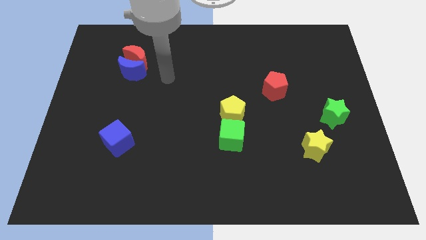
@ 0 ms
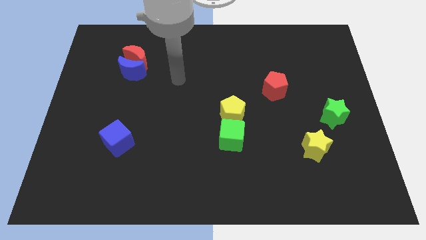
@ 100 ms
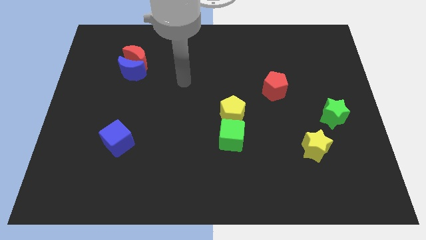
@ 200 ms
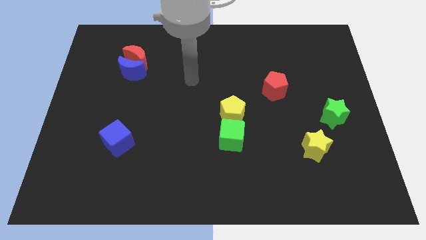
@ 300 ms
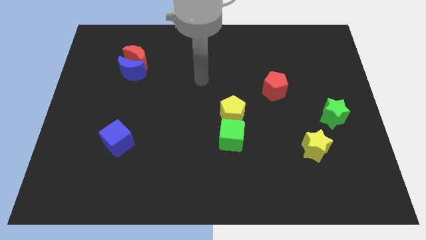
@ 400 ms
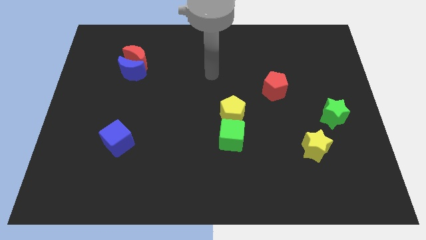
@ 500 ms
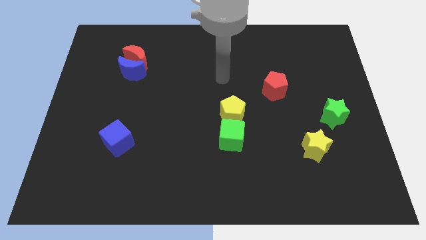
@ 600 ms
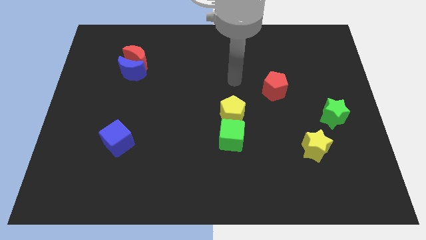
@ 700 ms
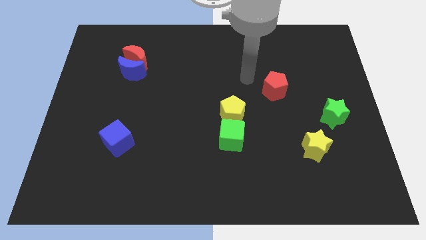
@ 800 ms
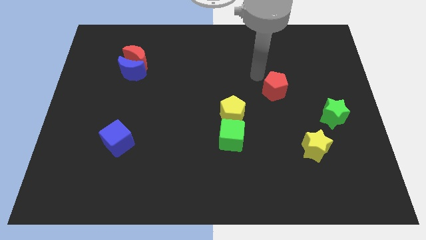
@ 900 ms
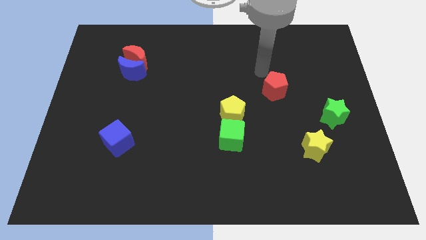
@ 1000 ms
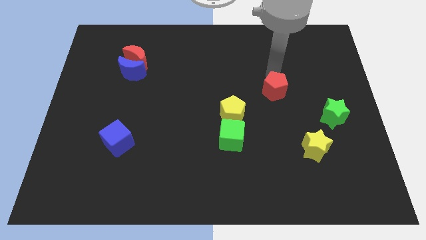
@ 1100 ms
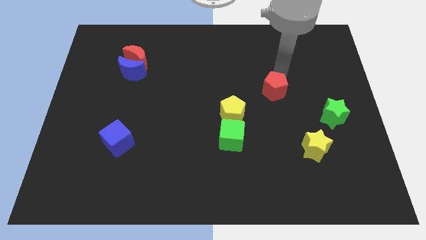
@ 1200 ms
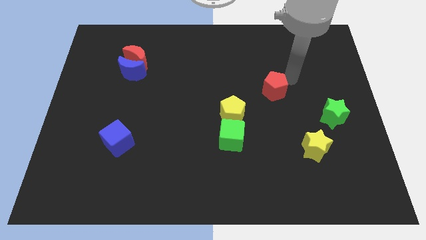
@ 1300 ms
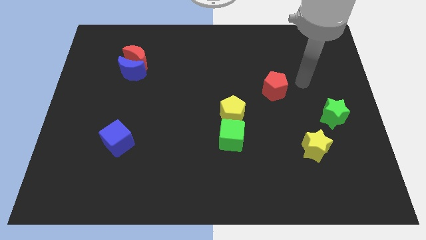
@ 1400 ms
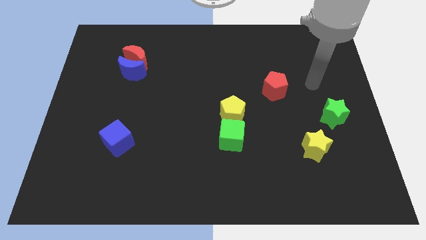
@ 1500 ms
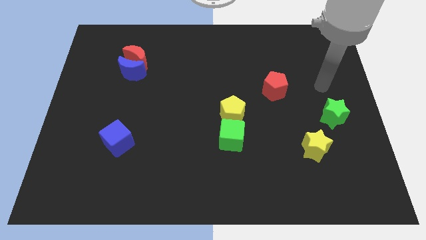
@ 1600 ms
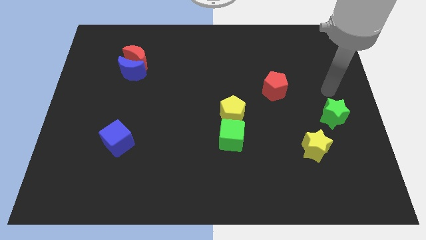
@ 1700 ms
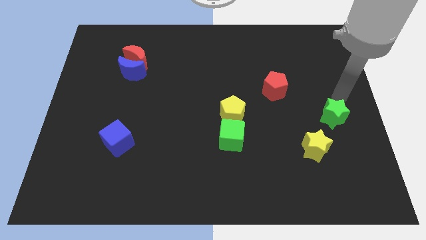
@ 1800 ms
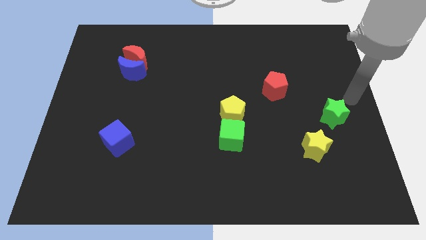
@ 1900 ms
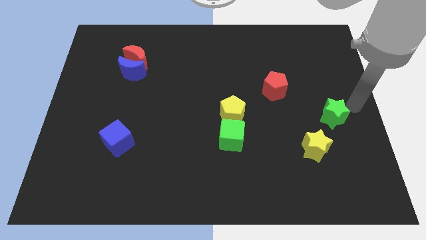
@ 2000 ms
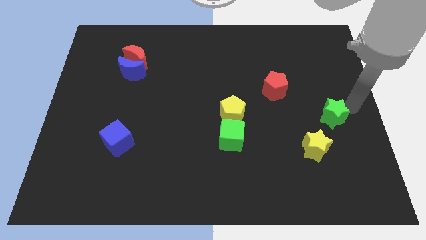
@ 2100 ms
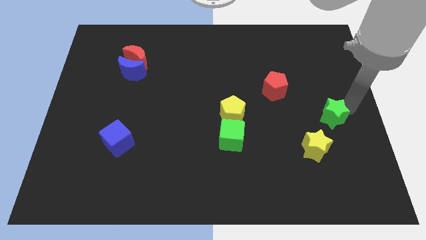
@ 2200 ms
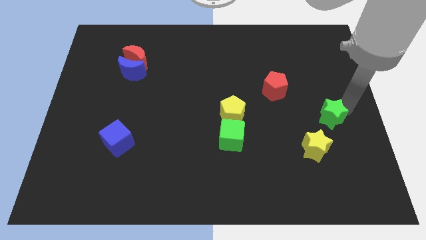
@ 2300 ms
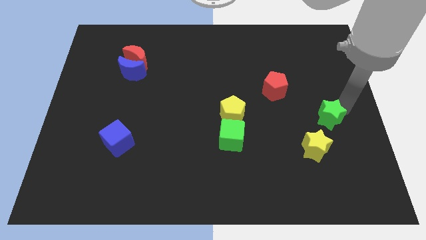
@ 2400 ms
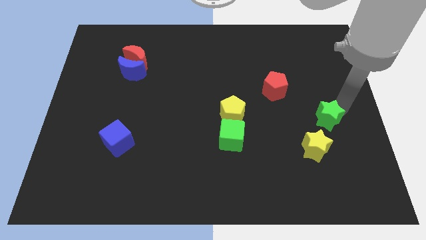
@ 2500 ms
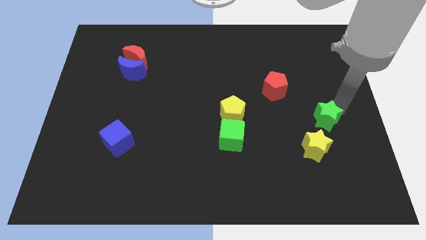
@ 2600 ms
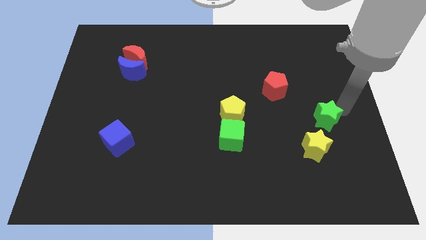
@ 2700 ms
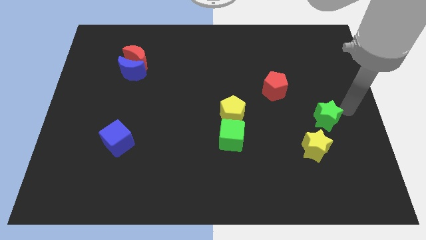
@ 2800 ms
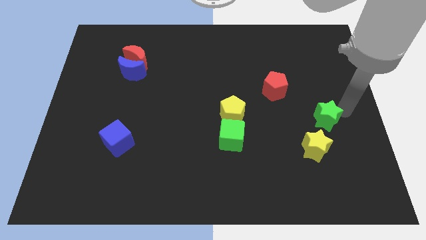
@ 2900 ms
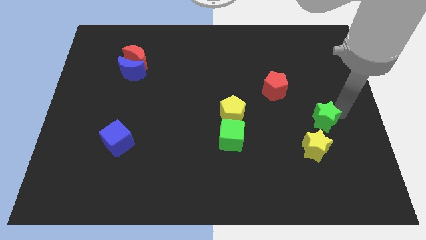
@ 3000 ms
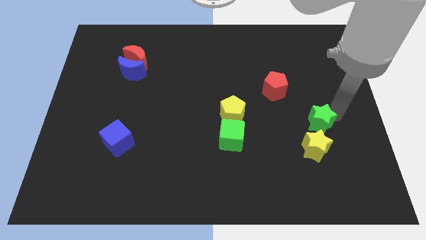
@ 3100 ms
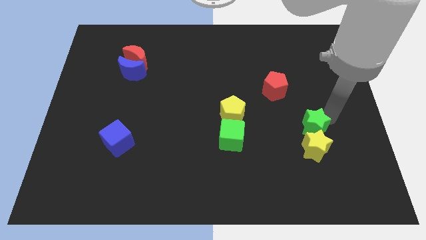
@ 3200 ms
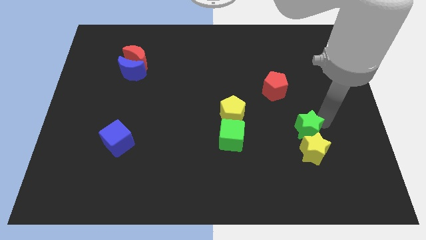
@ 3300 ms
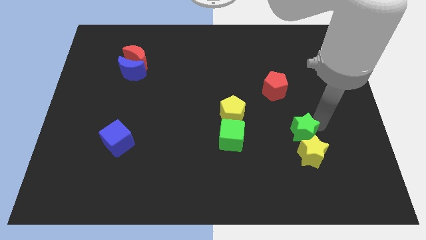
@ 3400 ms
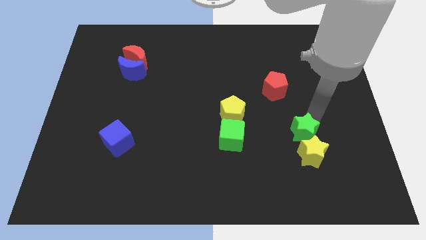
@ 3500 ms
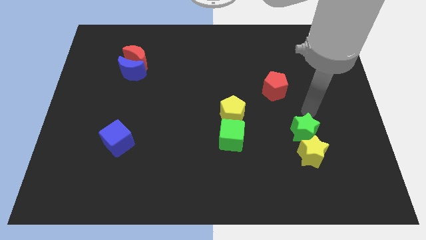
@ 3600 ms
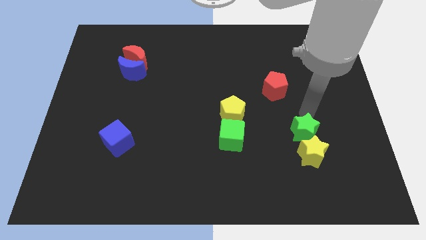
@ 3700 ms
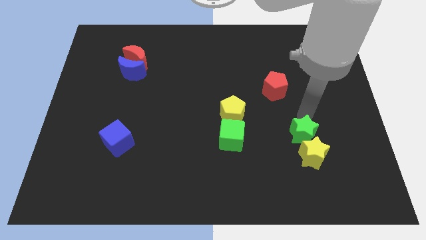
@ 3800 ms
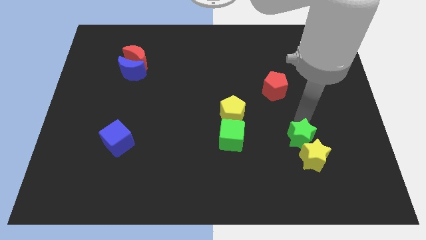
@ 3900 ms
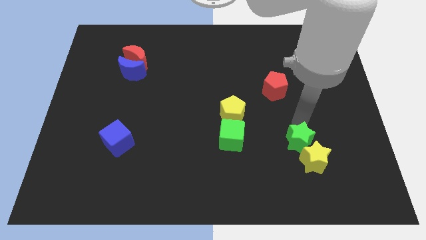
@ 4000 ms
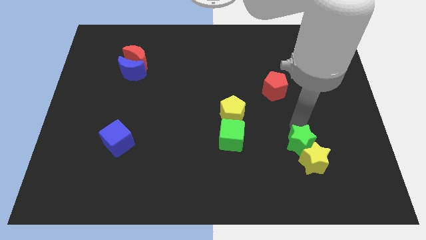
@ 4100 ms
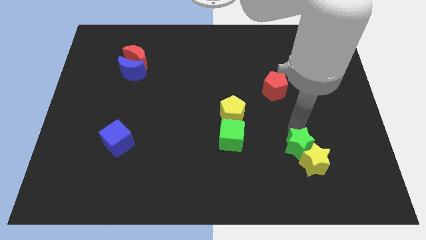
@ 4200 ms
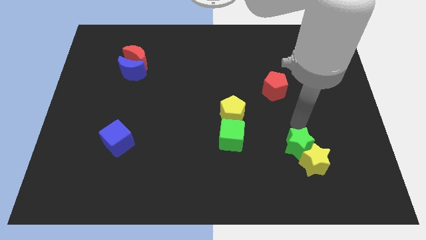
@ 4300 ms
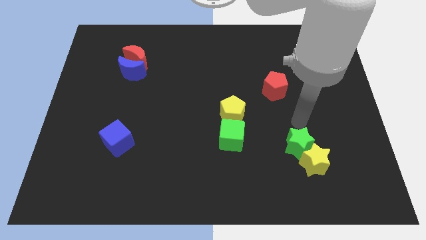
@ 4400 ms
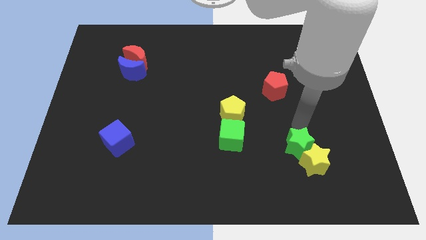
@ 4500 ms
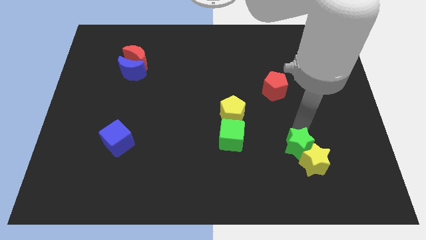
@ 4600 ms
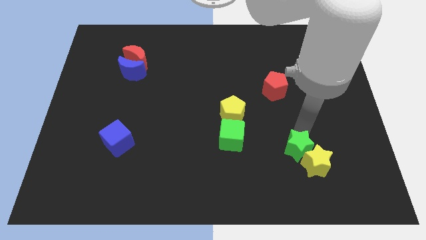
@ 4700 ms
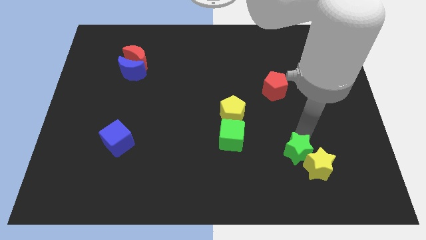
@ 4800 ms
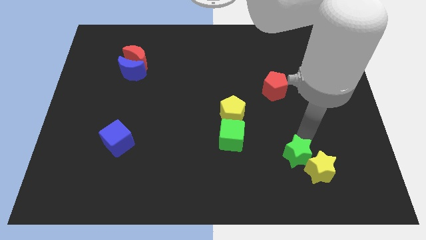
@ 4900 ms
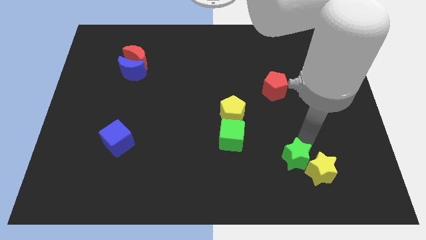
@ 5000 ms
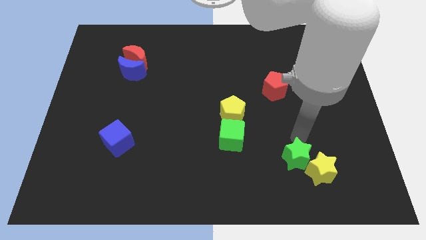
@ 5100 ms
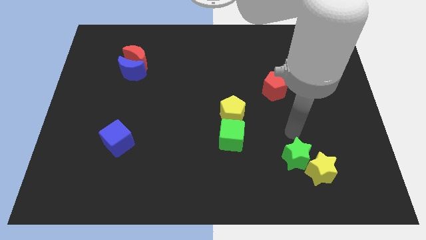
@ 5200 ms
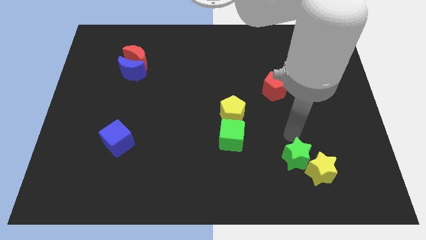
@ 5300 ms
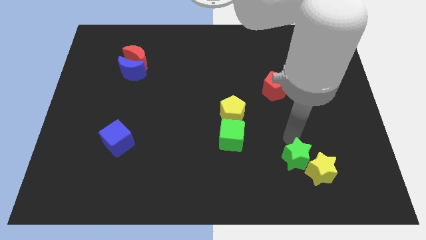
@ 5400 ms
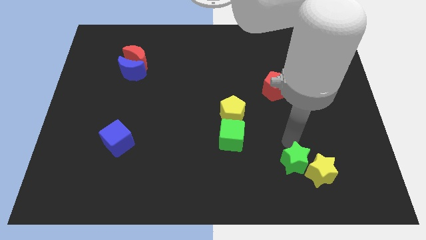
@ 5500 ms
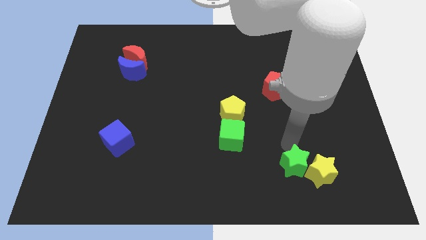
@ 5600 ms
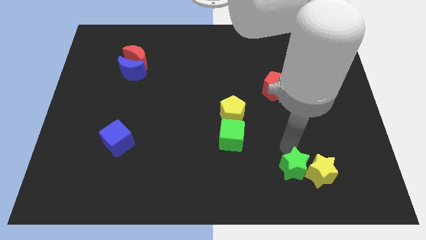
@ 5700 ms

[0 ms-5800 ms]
push the green star diagonally down and to the left of the yellow star

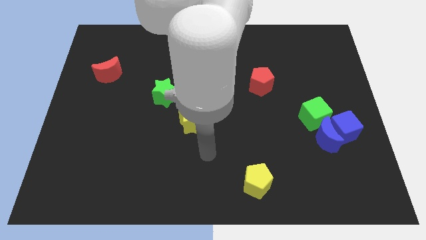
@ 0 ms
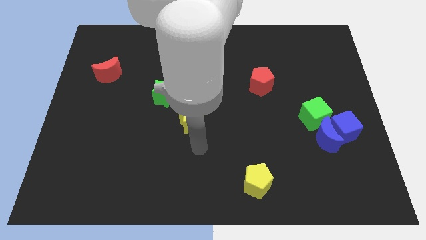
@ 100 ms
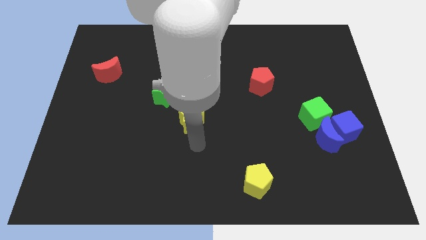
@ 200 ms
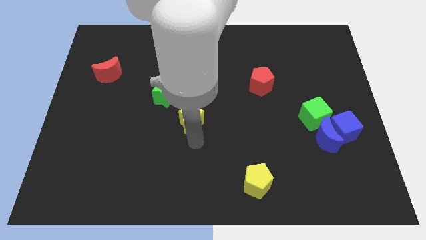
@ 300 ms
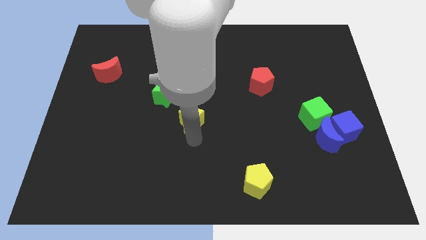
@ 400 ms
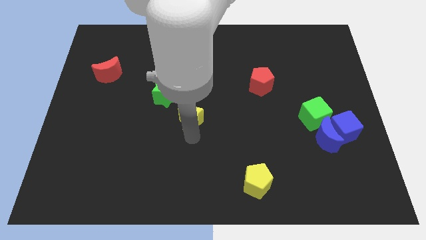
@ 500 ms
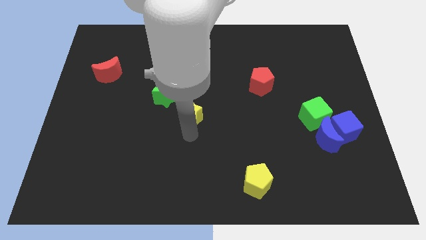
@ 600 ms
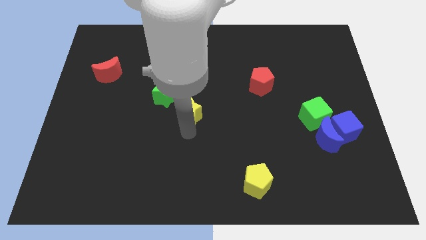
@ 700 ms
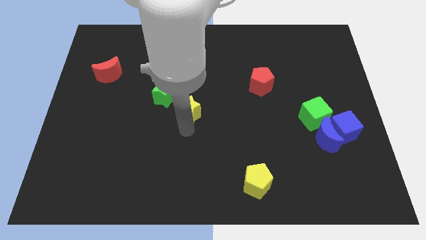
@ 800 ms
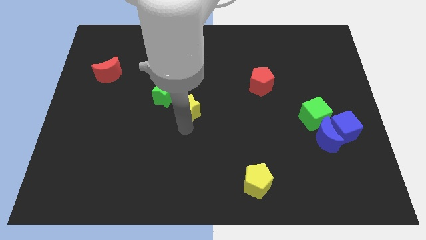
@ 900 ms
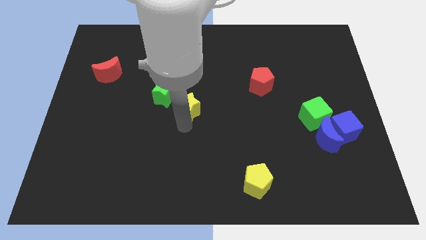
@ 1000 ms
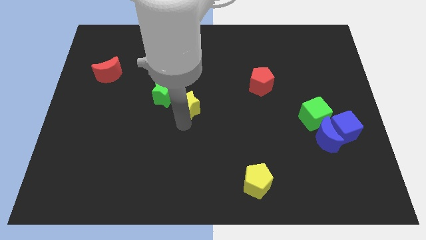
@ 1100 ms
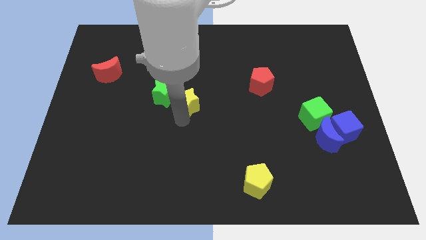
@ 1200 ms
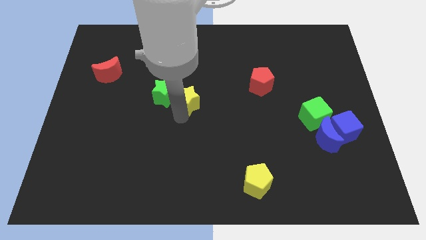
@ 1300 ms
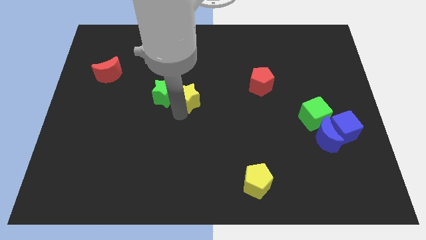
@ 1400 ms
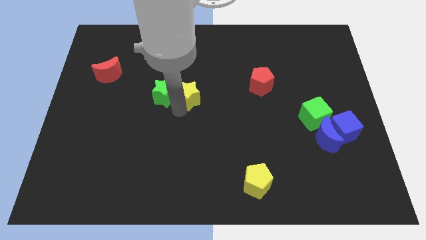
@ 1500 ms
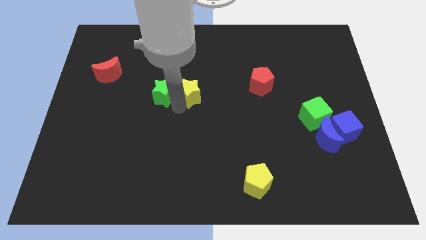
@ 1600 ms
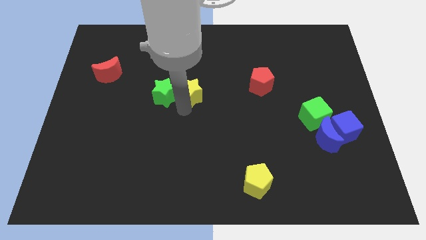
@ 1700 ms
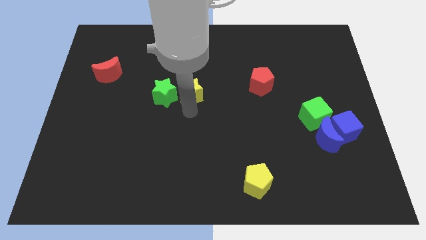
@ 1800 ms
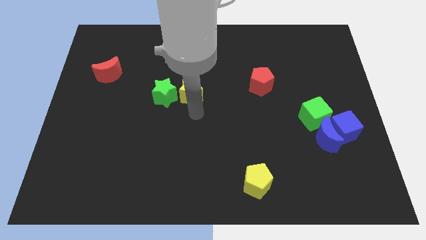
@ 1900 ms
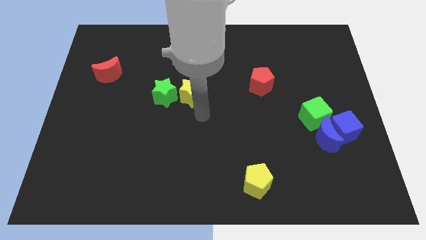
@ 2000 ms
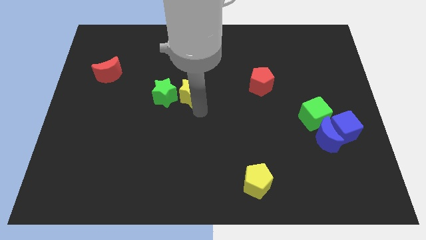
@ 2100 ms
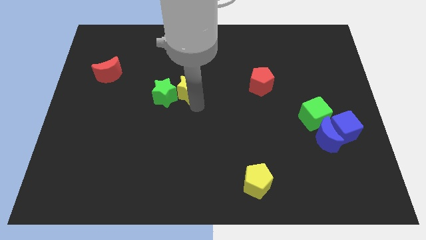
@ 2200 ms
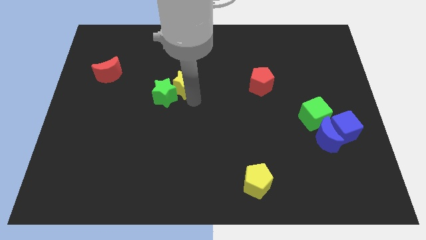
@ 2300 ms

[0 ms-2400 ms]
move the yellow star above the green star

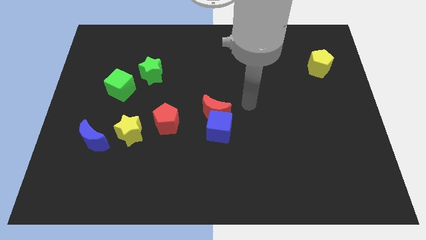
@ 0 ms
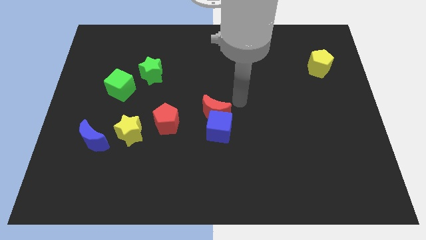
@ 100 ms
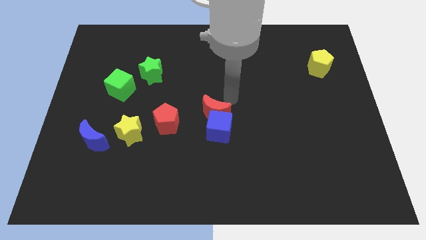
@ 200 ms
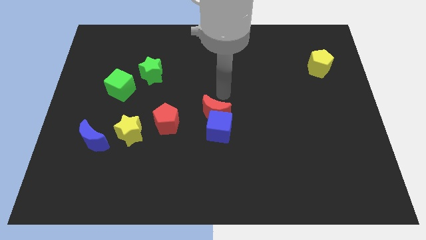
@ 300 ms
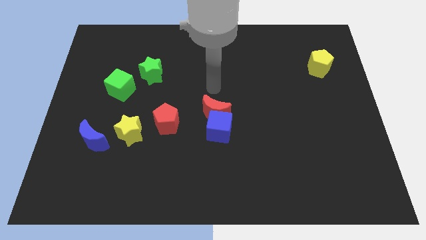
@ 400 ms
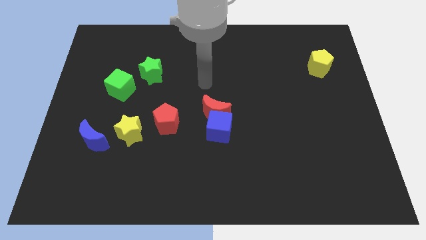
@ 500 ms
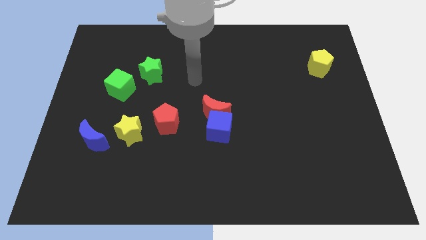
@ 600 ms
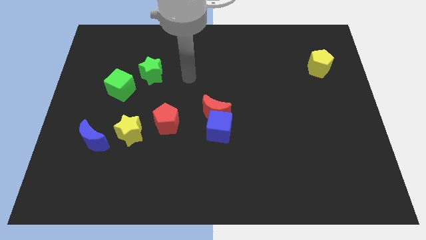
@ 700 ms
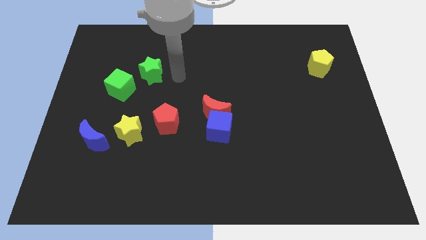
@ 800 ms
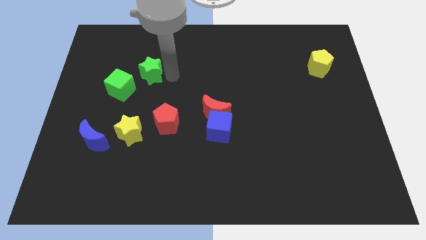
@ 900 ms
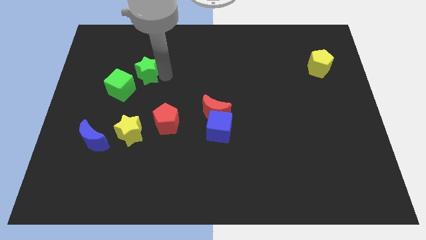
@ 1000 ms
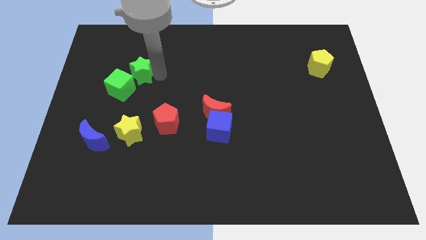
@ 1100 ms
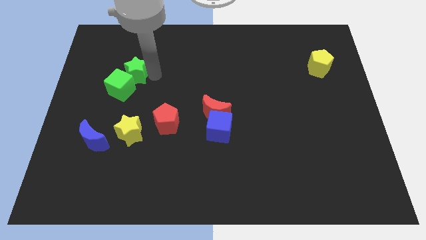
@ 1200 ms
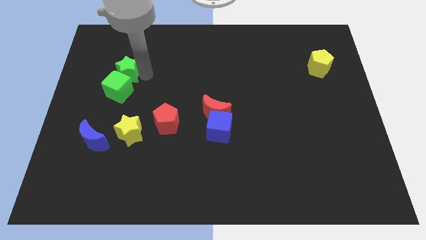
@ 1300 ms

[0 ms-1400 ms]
move the green star diagonally up and to the left of the green cube
